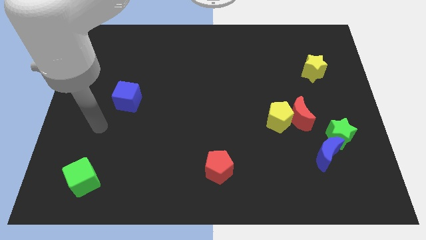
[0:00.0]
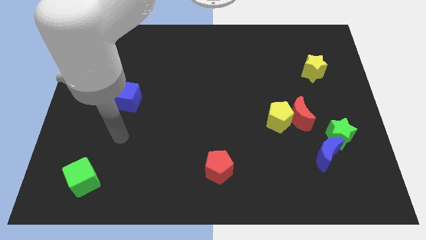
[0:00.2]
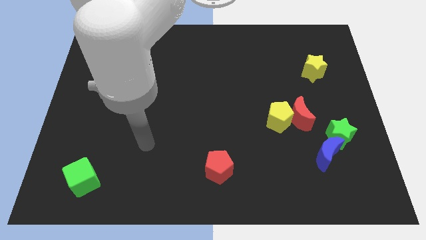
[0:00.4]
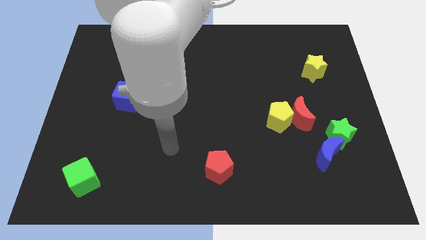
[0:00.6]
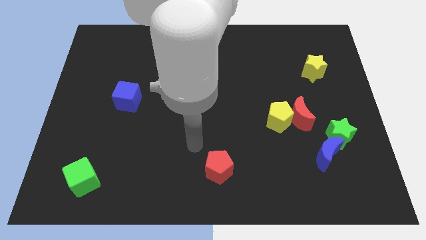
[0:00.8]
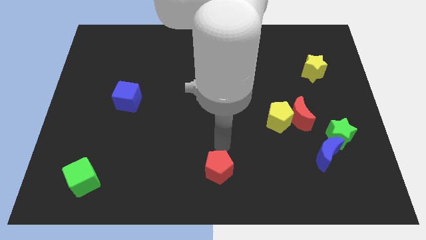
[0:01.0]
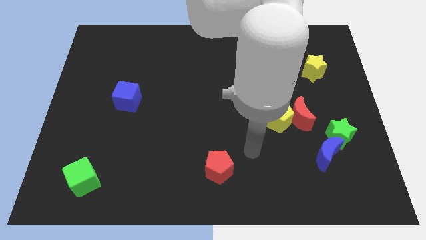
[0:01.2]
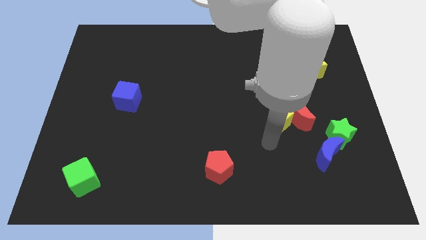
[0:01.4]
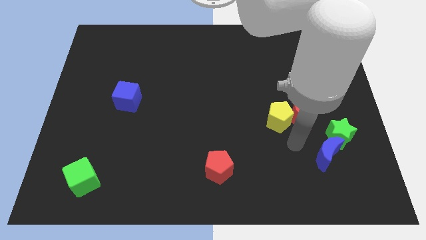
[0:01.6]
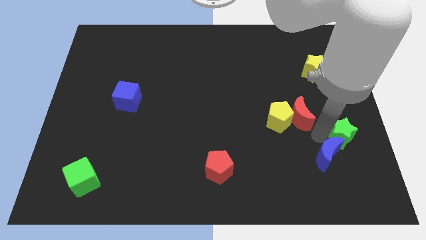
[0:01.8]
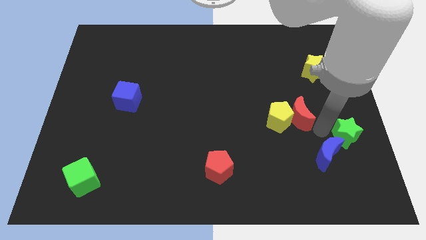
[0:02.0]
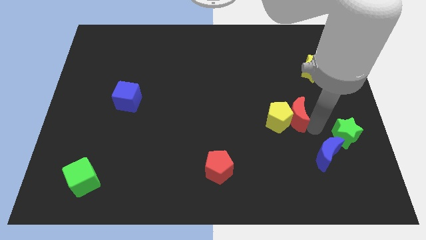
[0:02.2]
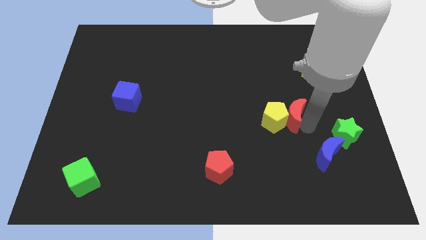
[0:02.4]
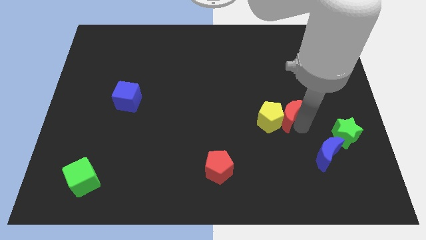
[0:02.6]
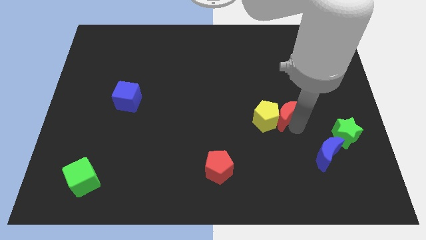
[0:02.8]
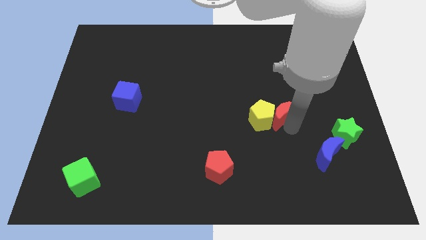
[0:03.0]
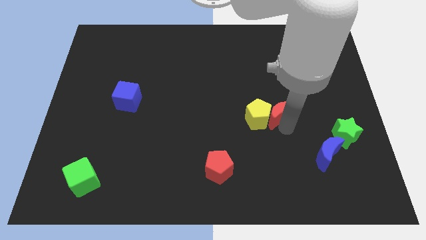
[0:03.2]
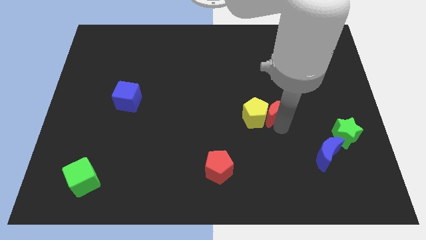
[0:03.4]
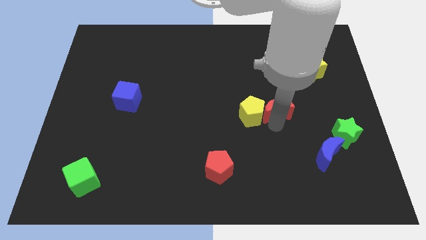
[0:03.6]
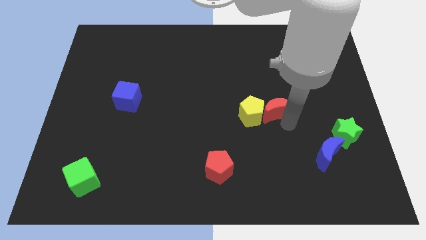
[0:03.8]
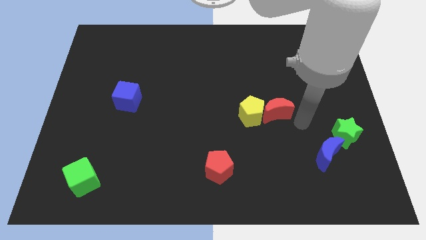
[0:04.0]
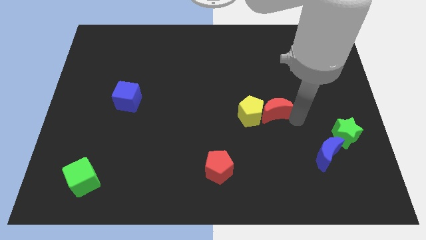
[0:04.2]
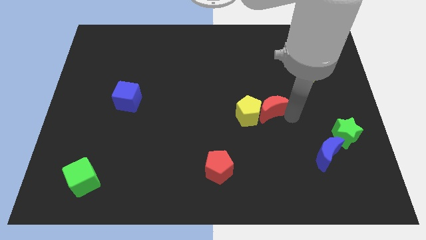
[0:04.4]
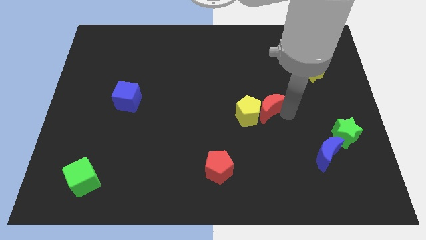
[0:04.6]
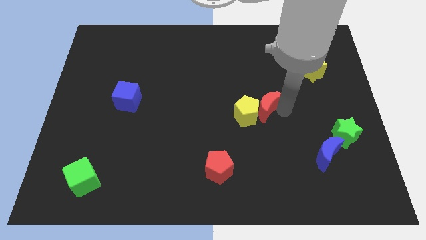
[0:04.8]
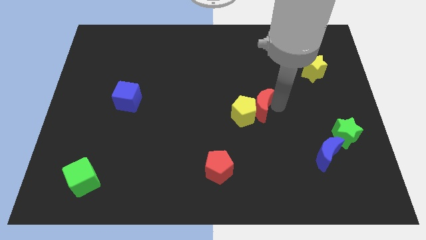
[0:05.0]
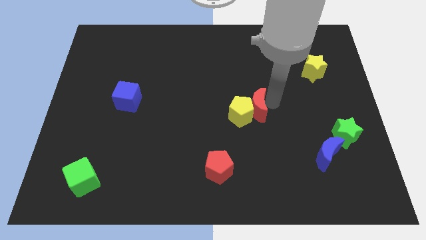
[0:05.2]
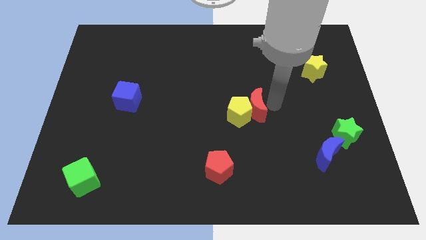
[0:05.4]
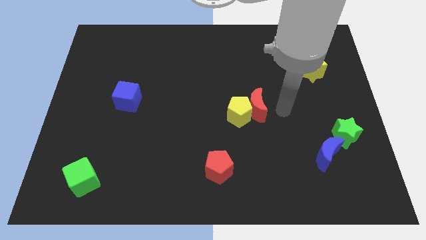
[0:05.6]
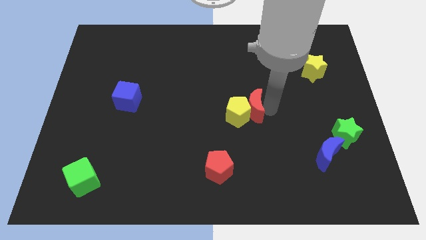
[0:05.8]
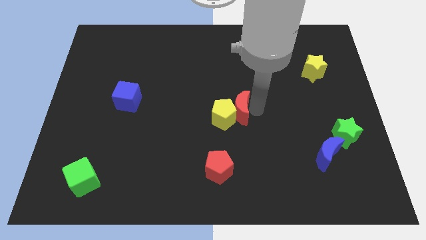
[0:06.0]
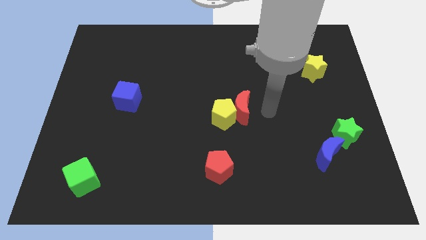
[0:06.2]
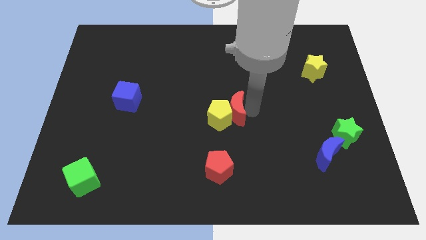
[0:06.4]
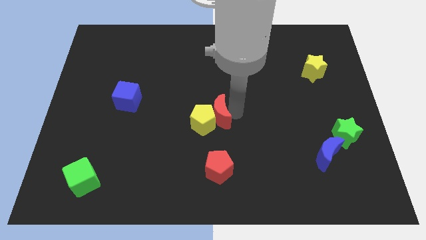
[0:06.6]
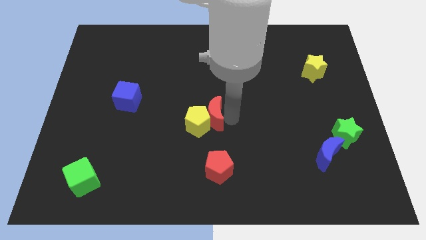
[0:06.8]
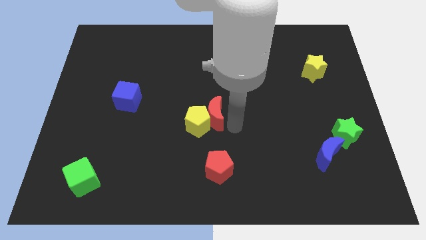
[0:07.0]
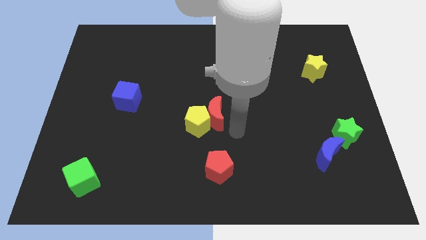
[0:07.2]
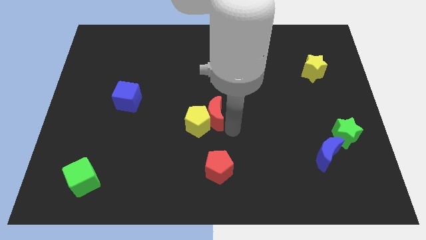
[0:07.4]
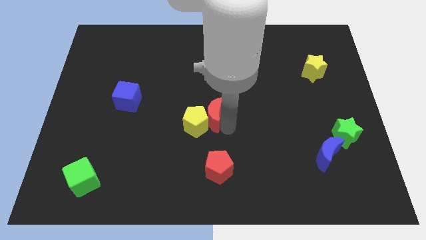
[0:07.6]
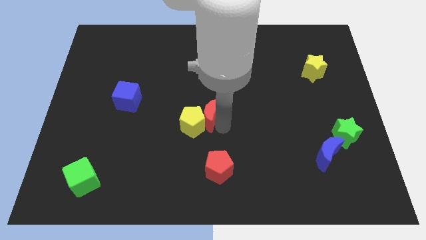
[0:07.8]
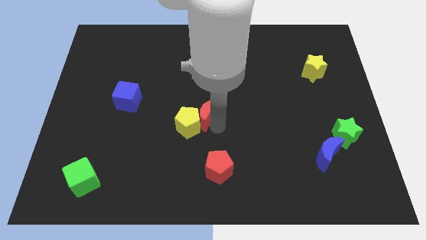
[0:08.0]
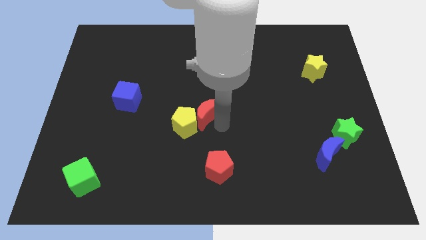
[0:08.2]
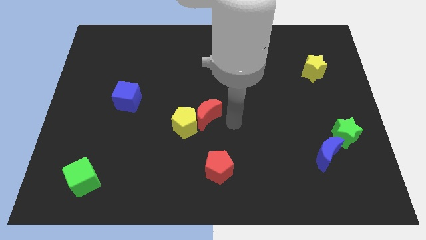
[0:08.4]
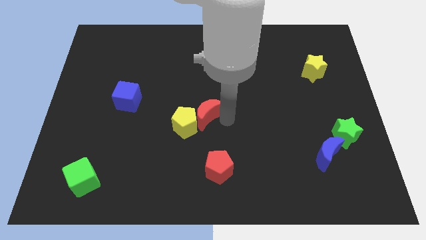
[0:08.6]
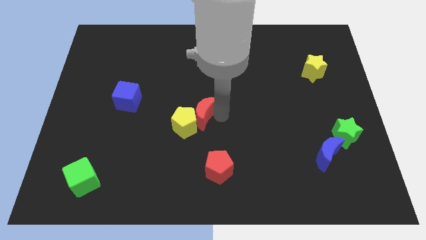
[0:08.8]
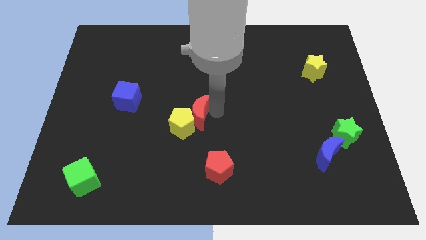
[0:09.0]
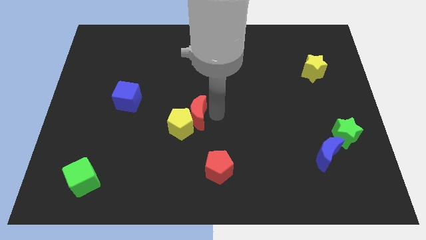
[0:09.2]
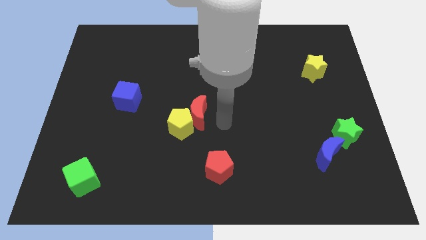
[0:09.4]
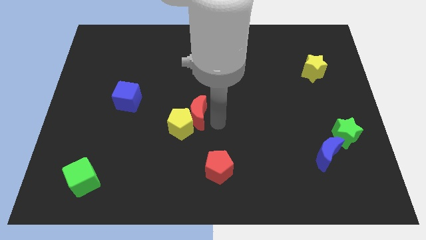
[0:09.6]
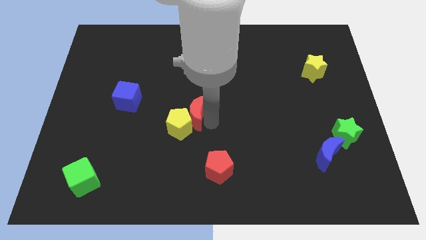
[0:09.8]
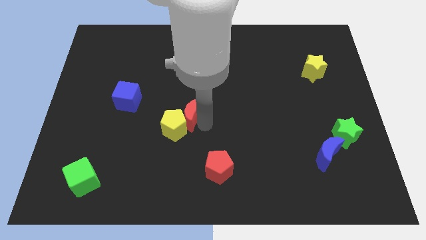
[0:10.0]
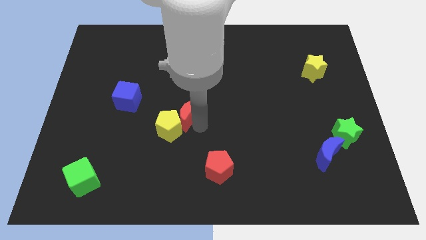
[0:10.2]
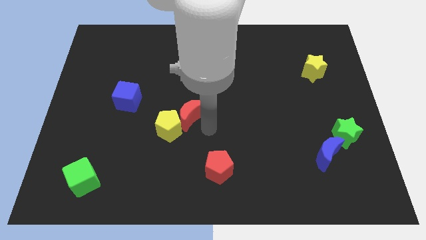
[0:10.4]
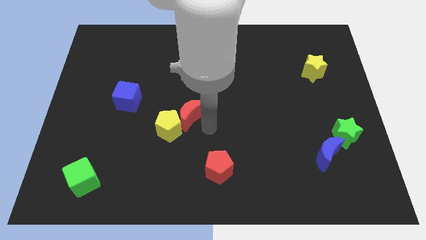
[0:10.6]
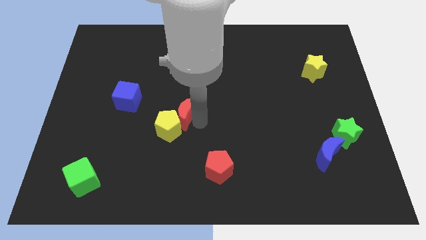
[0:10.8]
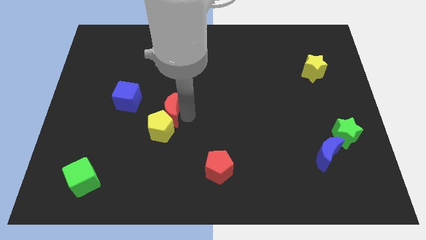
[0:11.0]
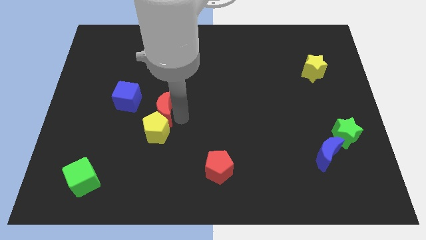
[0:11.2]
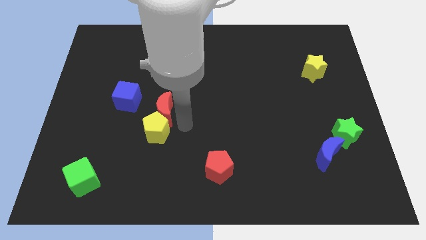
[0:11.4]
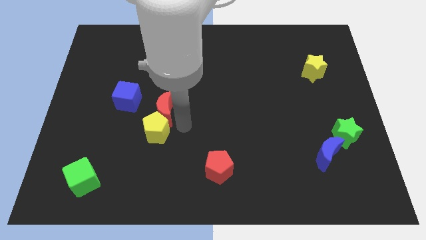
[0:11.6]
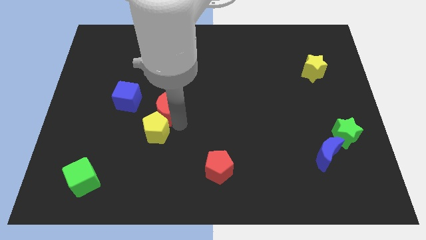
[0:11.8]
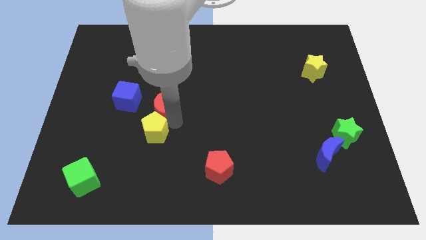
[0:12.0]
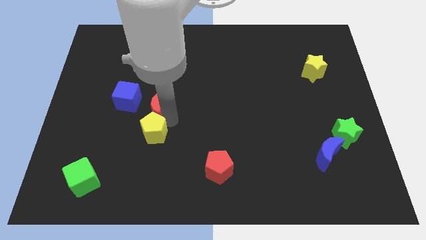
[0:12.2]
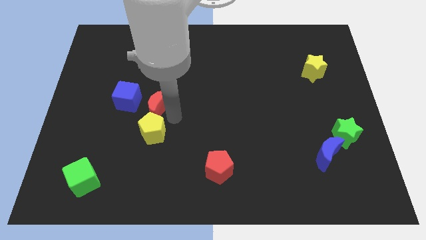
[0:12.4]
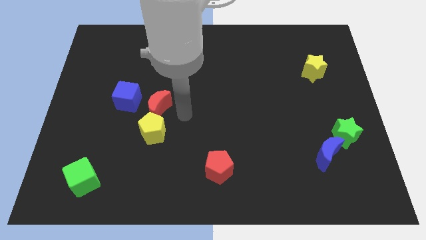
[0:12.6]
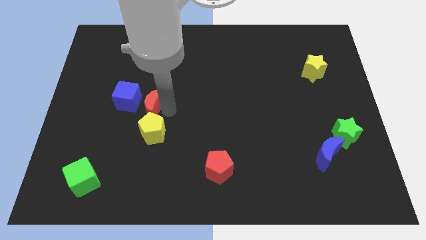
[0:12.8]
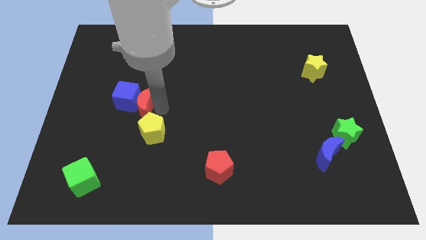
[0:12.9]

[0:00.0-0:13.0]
put the red moon to the blue cube
